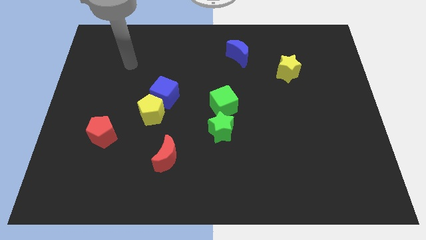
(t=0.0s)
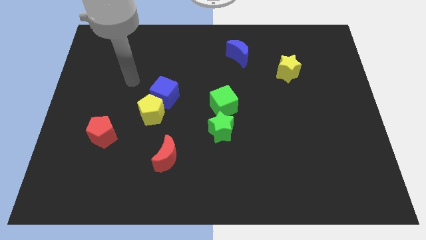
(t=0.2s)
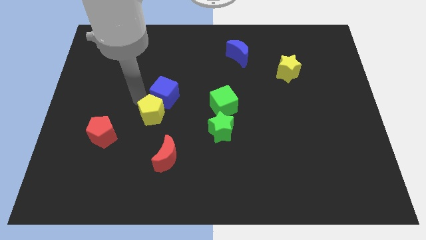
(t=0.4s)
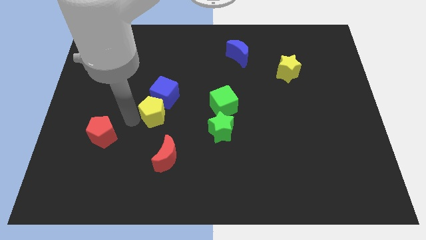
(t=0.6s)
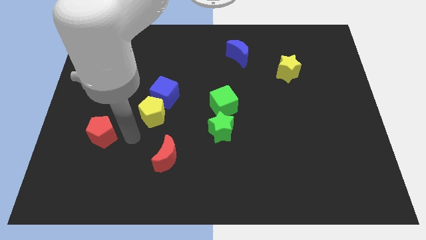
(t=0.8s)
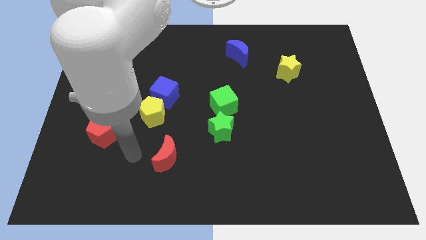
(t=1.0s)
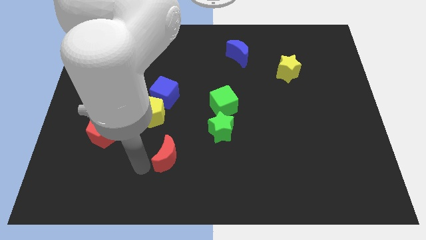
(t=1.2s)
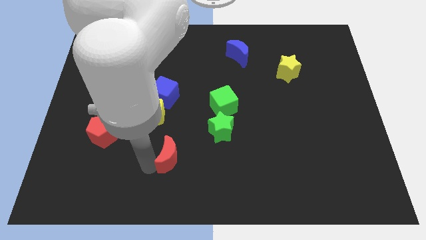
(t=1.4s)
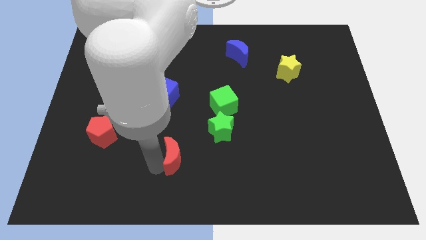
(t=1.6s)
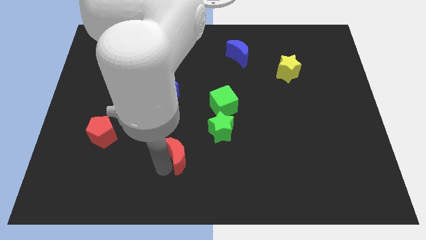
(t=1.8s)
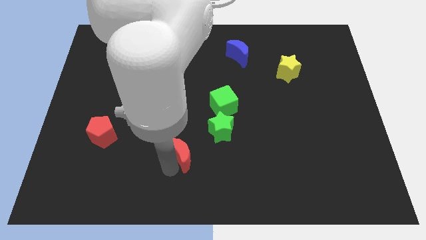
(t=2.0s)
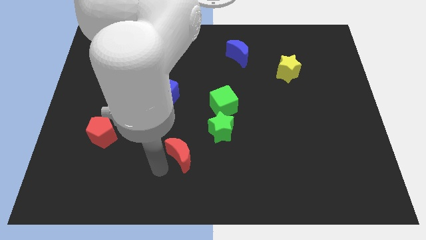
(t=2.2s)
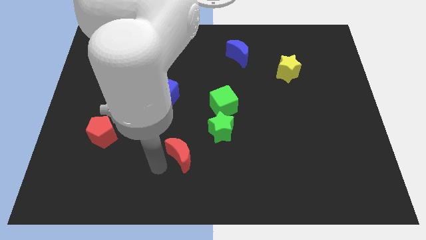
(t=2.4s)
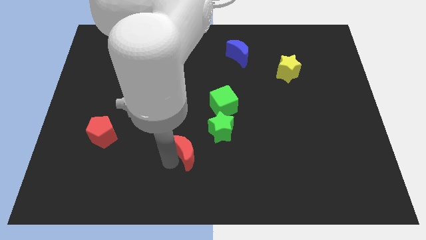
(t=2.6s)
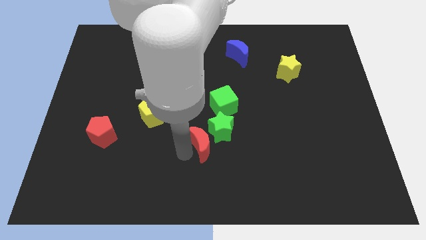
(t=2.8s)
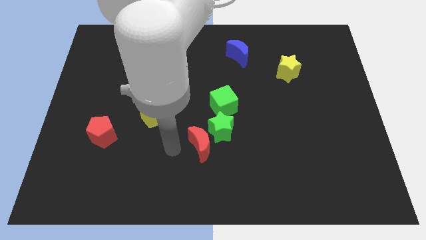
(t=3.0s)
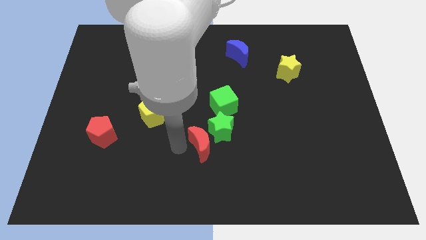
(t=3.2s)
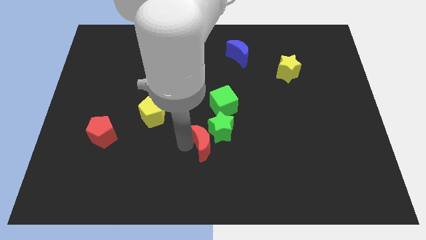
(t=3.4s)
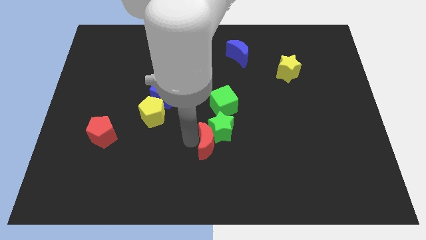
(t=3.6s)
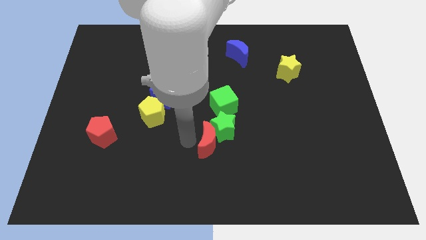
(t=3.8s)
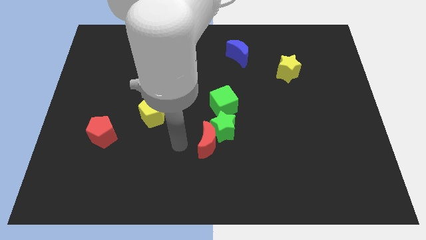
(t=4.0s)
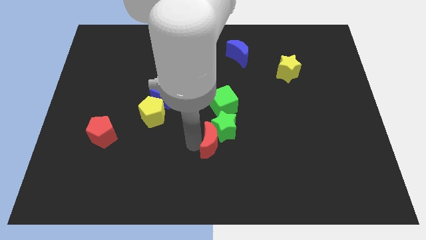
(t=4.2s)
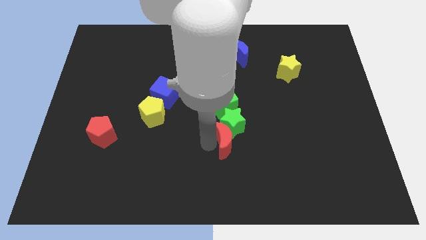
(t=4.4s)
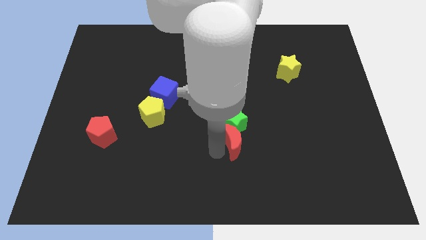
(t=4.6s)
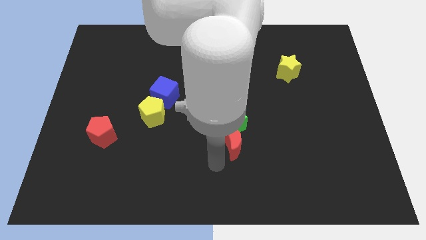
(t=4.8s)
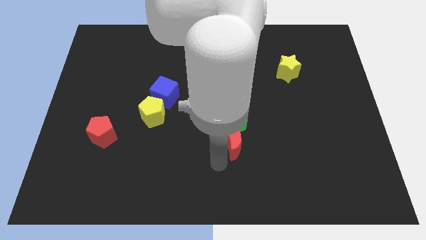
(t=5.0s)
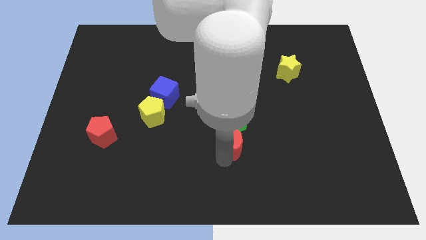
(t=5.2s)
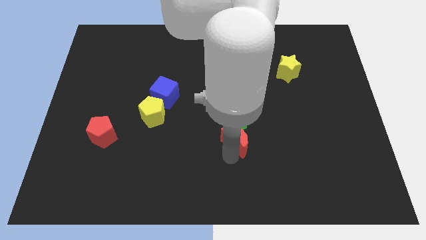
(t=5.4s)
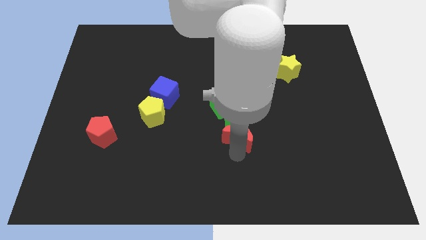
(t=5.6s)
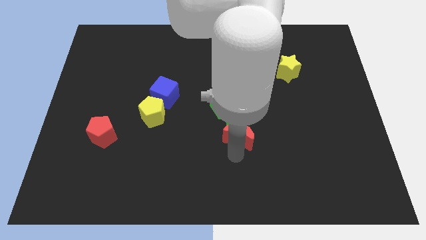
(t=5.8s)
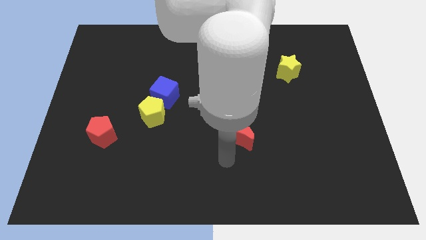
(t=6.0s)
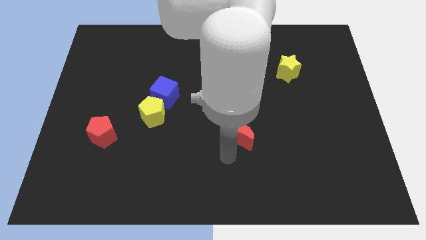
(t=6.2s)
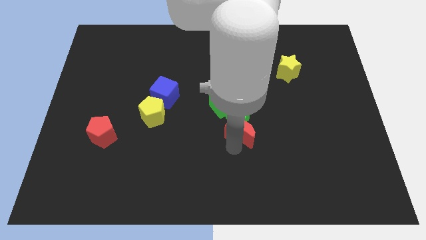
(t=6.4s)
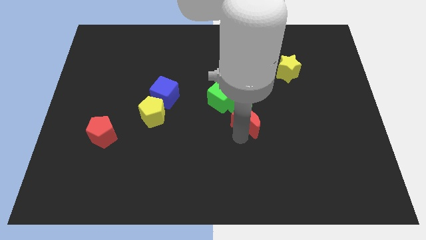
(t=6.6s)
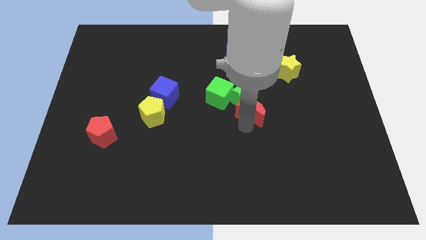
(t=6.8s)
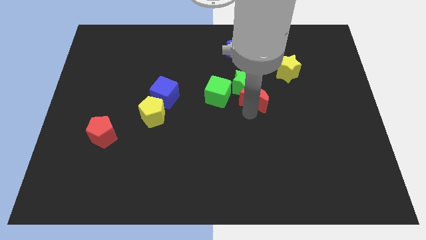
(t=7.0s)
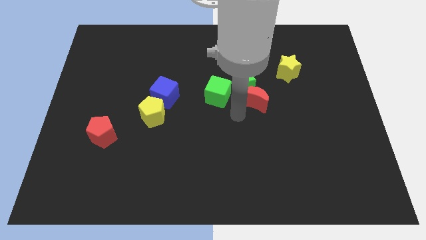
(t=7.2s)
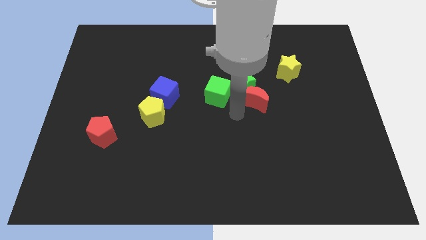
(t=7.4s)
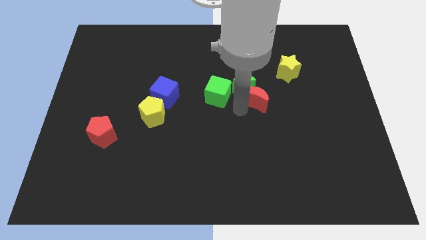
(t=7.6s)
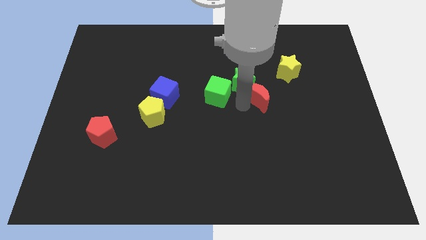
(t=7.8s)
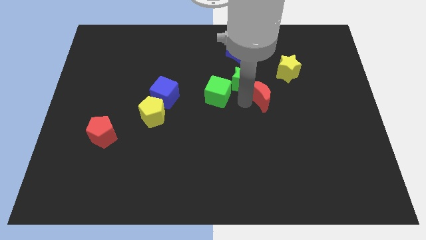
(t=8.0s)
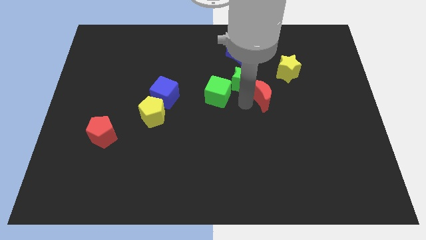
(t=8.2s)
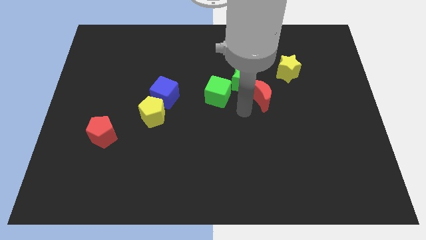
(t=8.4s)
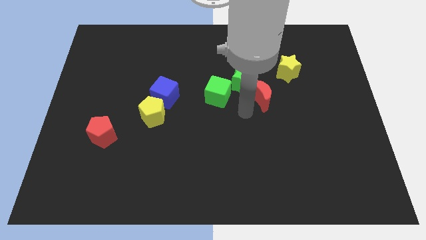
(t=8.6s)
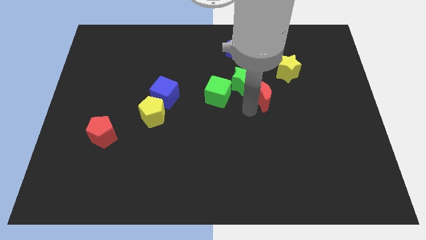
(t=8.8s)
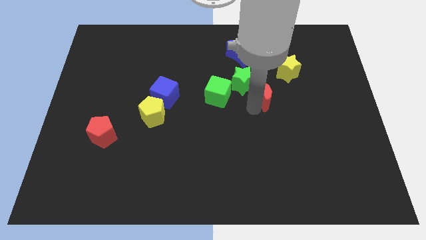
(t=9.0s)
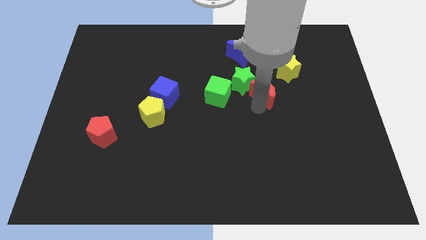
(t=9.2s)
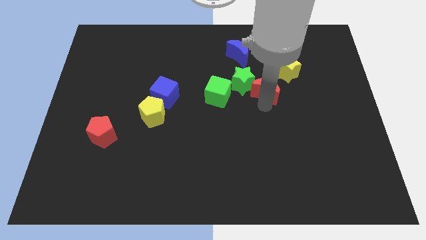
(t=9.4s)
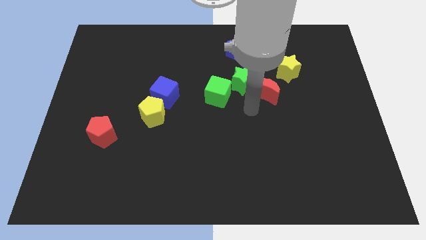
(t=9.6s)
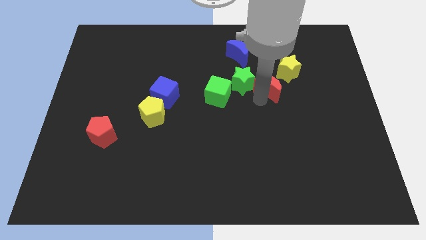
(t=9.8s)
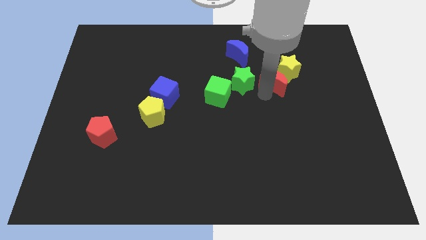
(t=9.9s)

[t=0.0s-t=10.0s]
push the red moon next to the yellow star

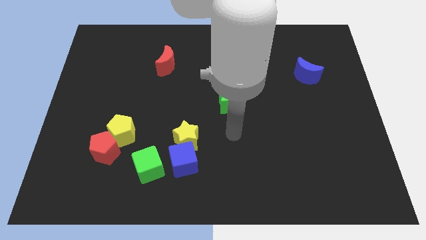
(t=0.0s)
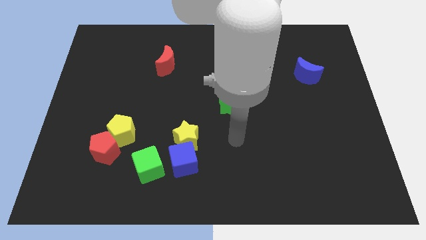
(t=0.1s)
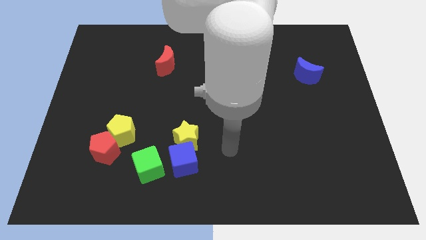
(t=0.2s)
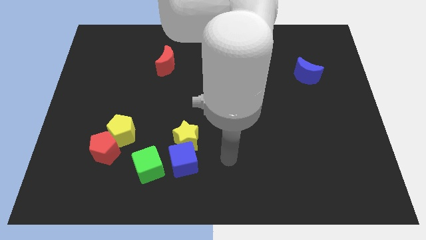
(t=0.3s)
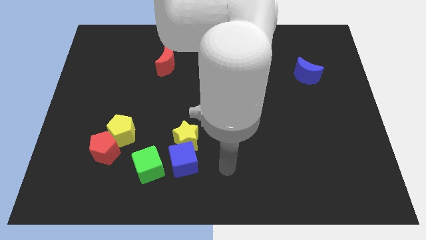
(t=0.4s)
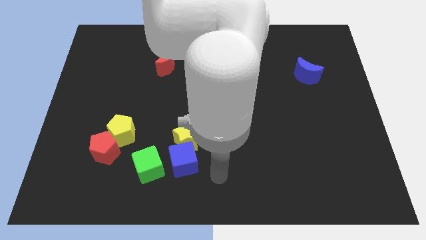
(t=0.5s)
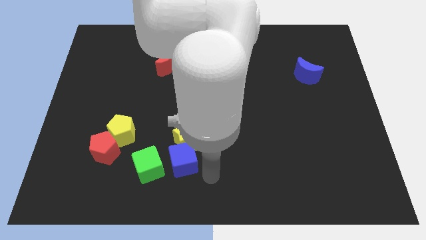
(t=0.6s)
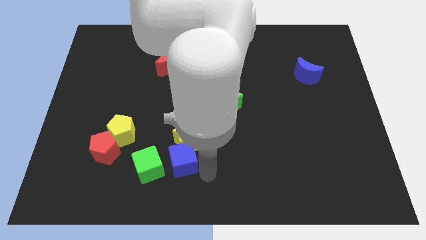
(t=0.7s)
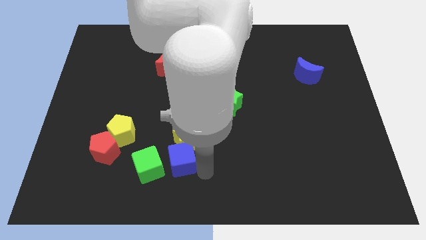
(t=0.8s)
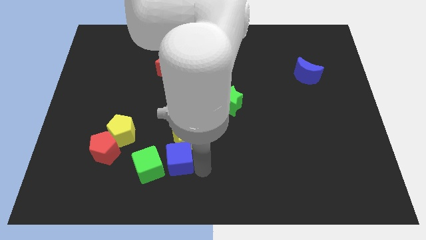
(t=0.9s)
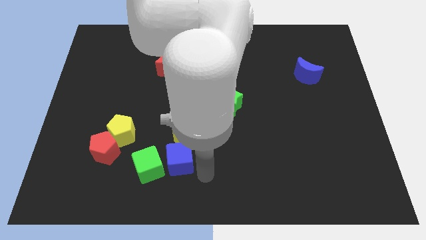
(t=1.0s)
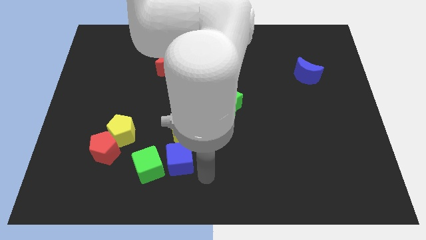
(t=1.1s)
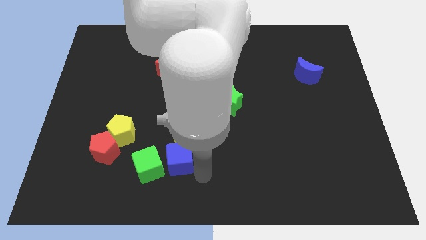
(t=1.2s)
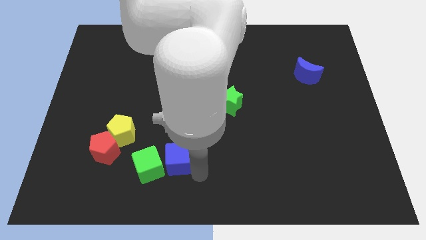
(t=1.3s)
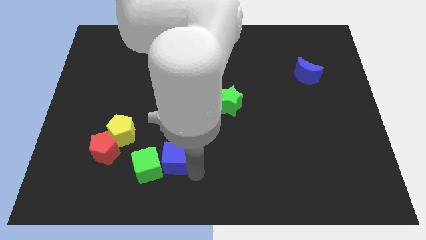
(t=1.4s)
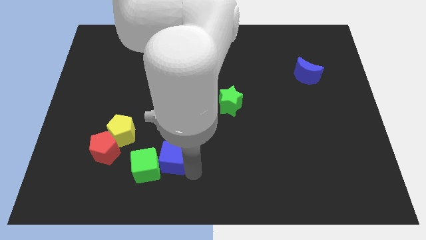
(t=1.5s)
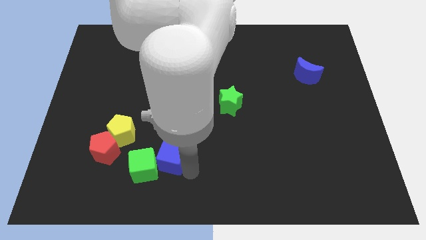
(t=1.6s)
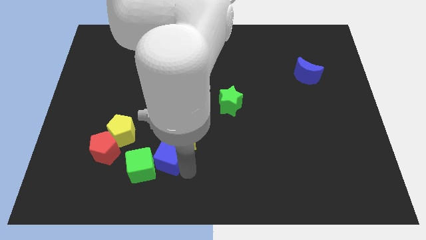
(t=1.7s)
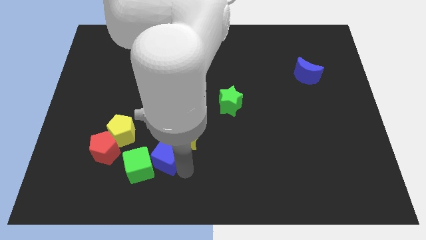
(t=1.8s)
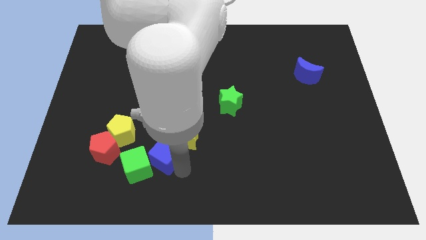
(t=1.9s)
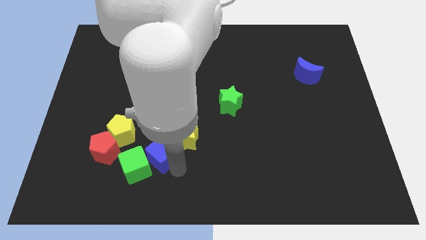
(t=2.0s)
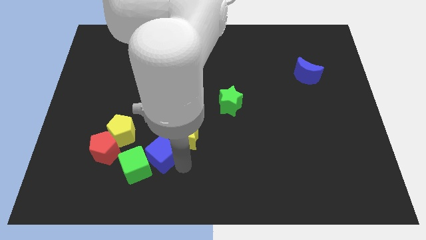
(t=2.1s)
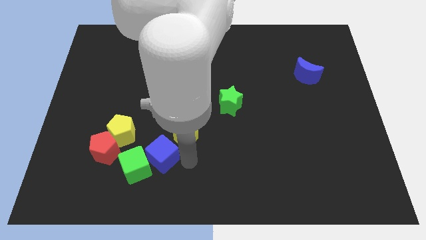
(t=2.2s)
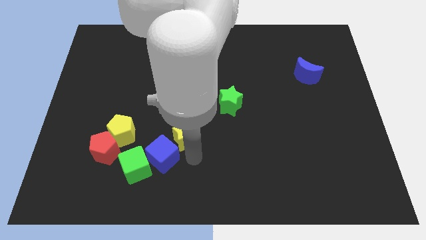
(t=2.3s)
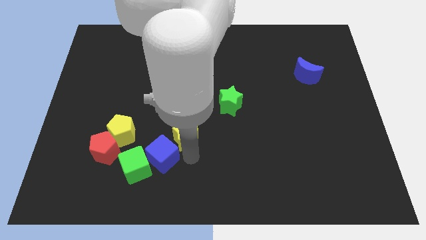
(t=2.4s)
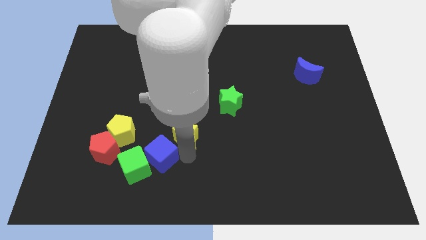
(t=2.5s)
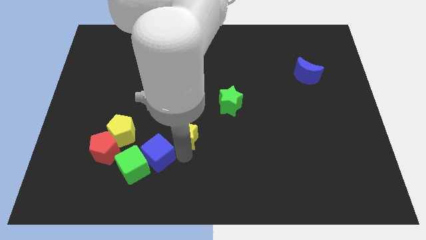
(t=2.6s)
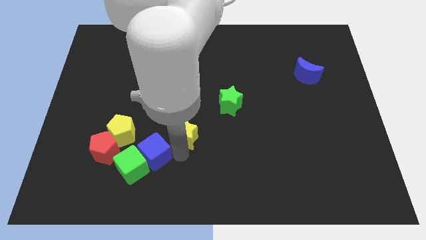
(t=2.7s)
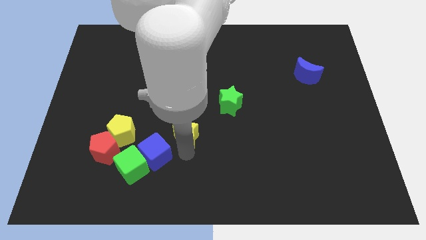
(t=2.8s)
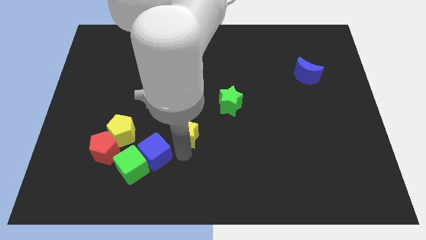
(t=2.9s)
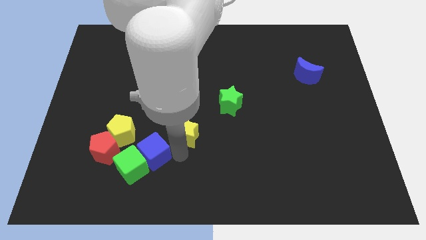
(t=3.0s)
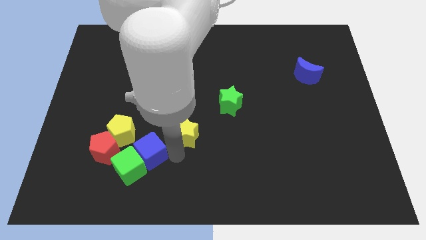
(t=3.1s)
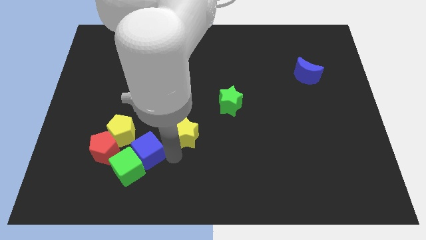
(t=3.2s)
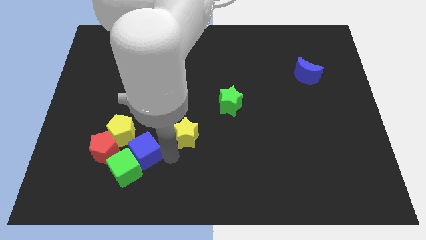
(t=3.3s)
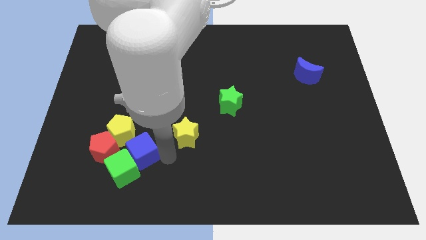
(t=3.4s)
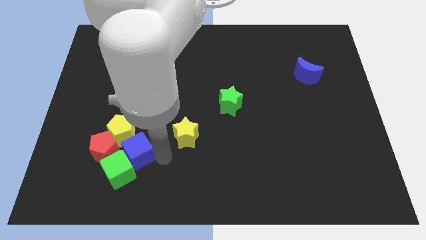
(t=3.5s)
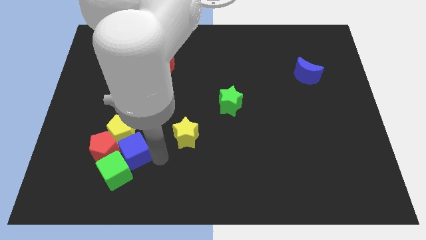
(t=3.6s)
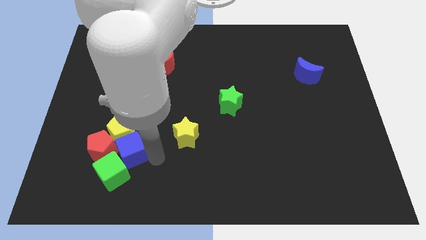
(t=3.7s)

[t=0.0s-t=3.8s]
put the blue cube towards the red pentagon
